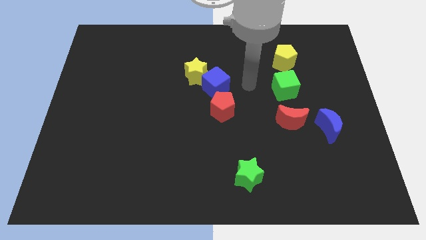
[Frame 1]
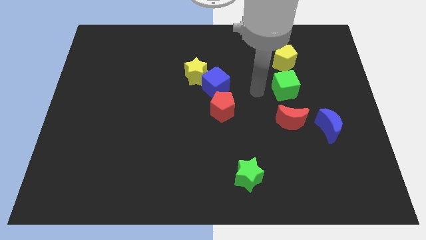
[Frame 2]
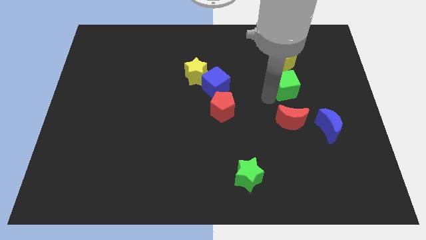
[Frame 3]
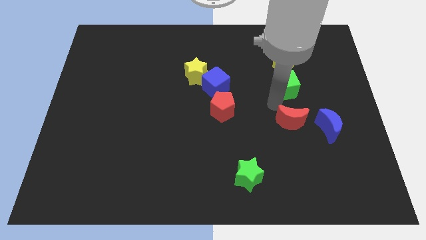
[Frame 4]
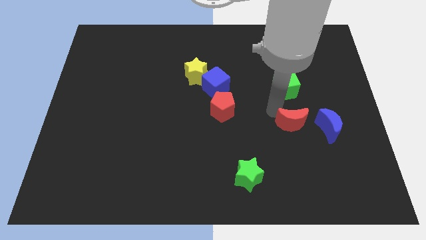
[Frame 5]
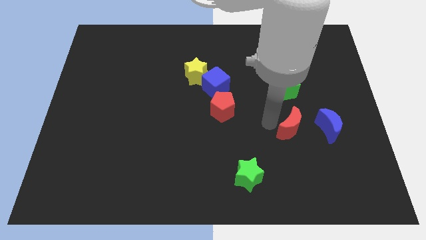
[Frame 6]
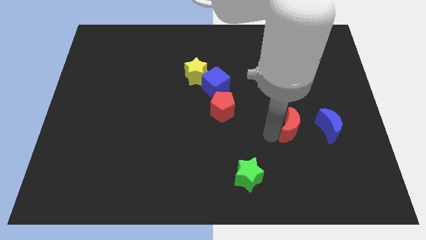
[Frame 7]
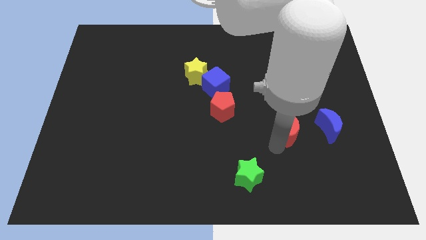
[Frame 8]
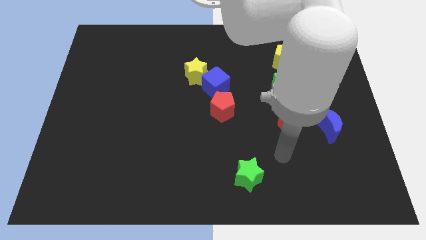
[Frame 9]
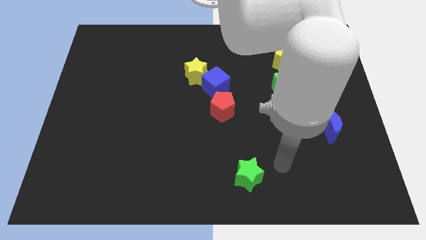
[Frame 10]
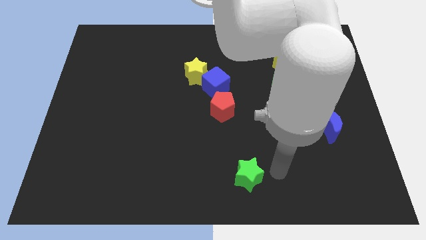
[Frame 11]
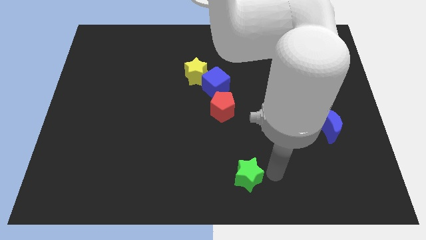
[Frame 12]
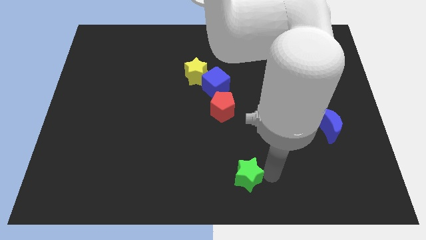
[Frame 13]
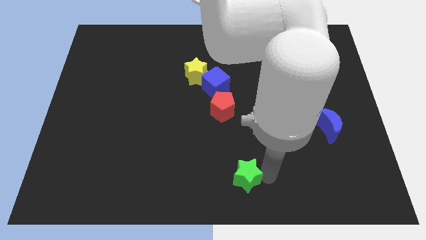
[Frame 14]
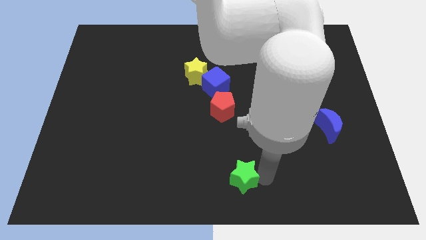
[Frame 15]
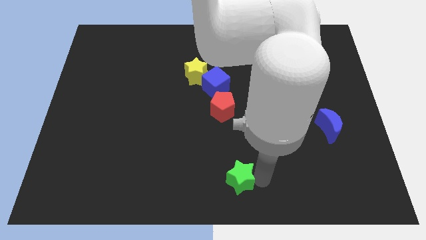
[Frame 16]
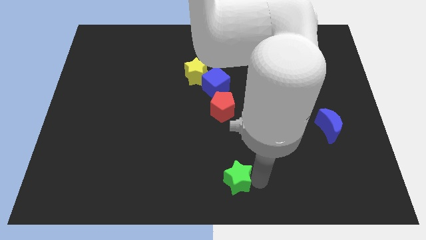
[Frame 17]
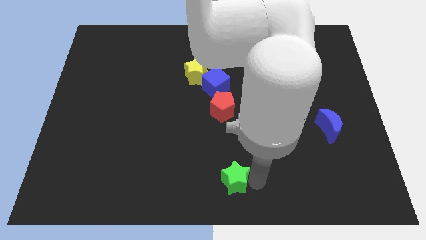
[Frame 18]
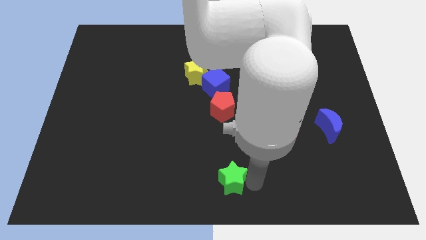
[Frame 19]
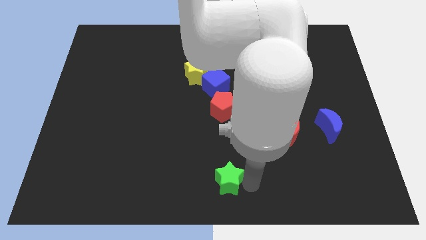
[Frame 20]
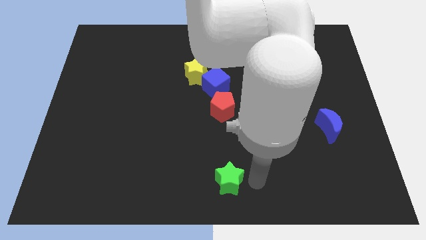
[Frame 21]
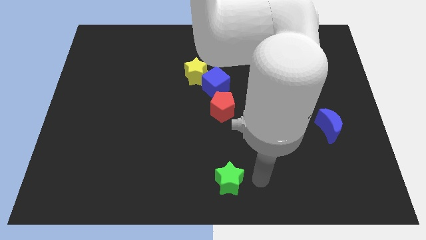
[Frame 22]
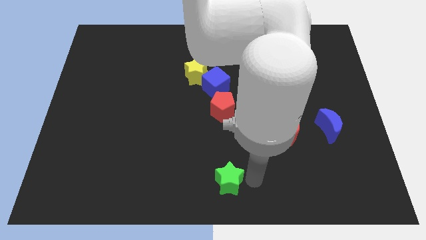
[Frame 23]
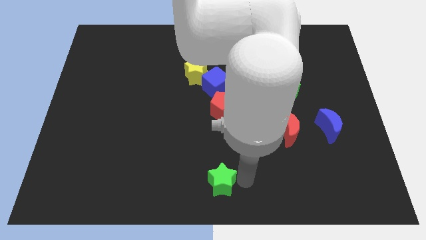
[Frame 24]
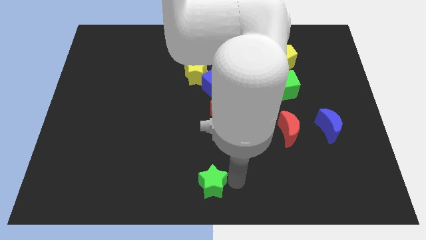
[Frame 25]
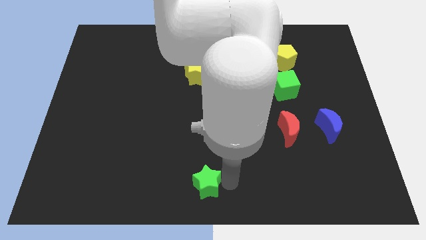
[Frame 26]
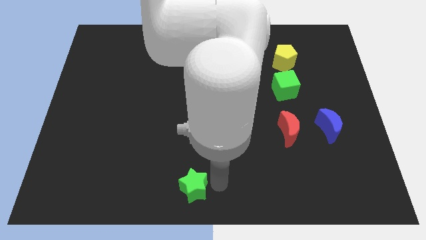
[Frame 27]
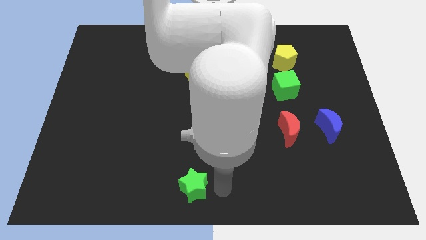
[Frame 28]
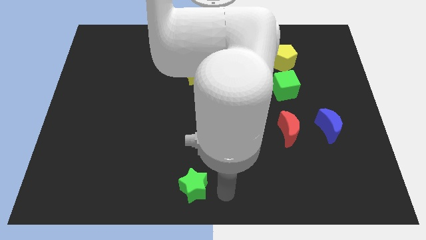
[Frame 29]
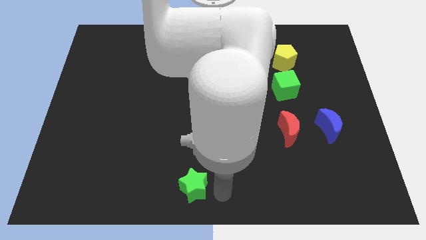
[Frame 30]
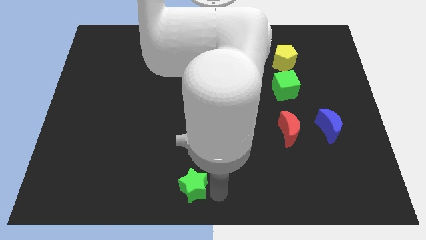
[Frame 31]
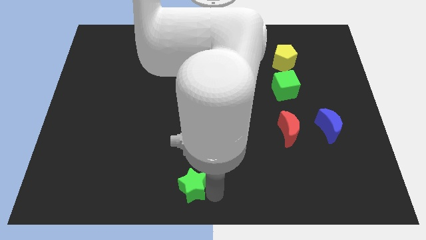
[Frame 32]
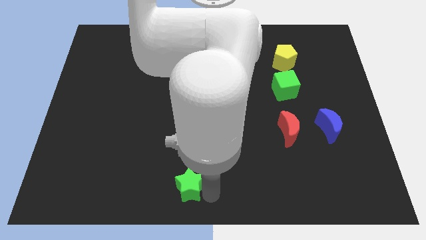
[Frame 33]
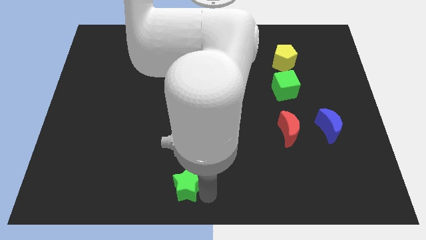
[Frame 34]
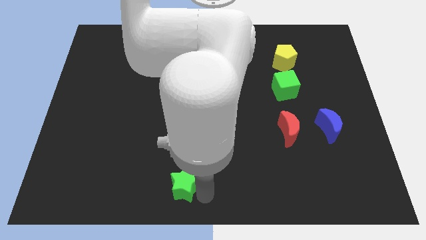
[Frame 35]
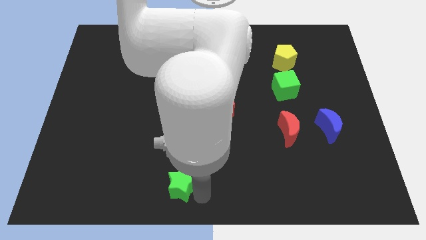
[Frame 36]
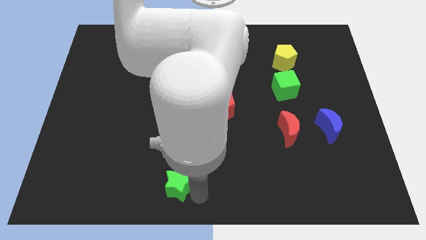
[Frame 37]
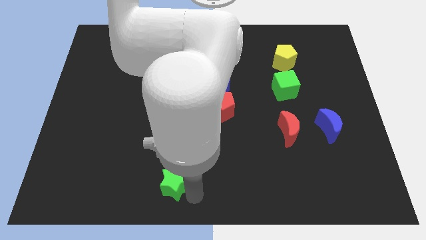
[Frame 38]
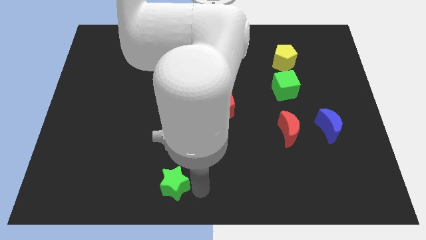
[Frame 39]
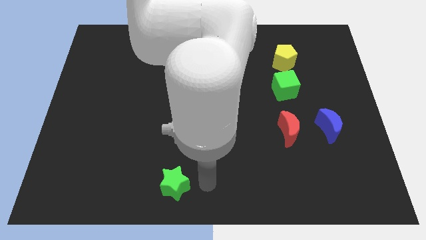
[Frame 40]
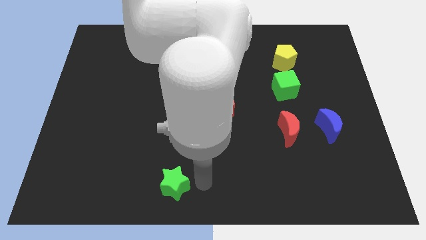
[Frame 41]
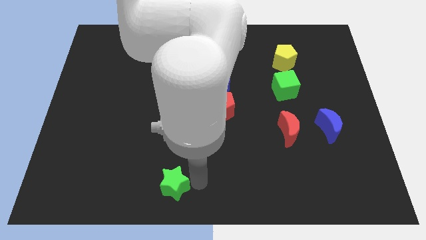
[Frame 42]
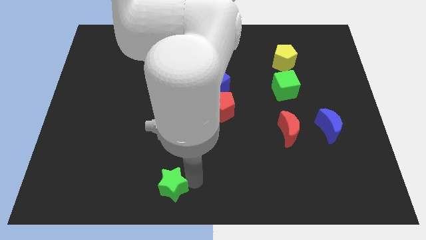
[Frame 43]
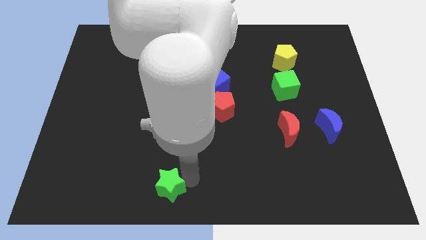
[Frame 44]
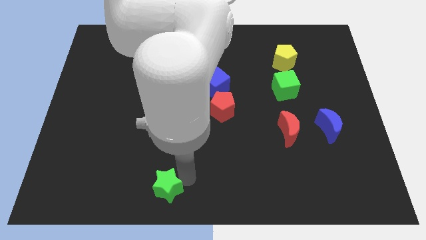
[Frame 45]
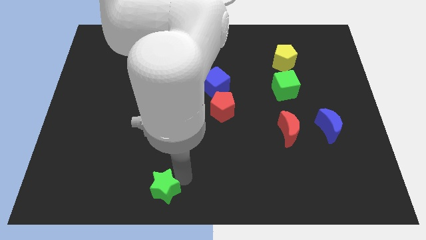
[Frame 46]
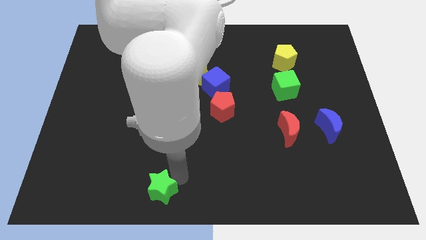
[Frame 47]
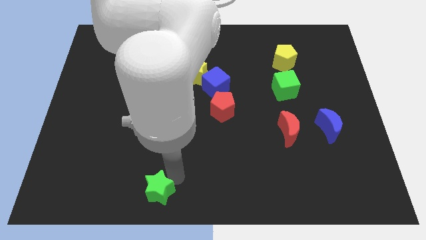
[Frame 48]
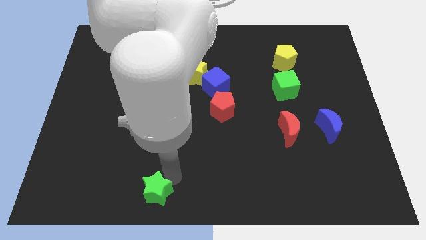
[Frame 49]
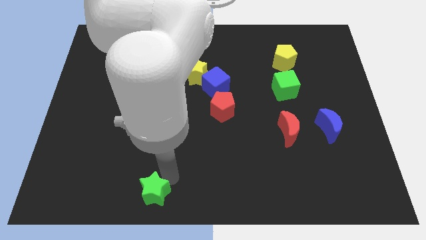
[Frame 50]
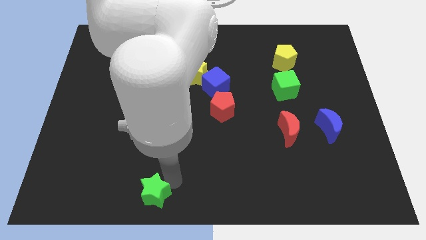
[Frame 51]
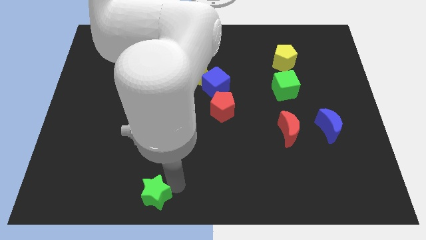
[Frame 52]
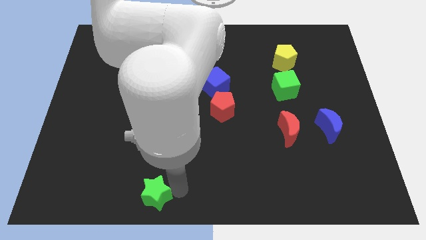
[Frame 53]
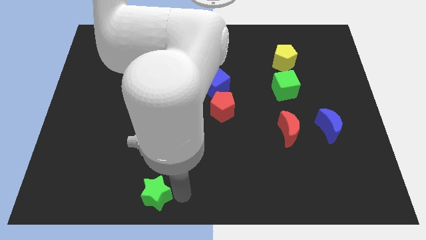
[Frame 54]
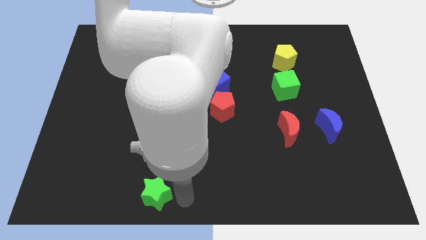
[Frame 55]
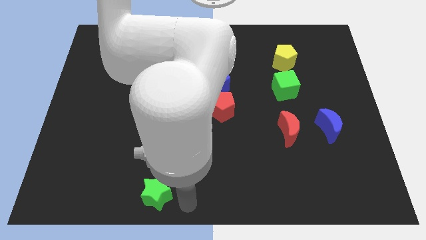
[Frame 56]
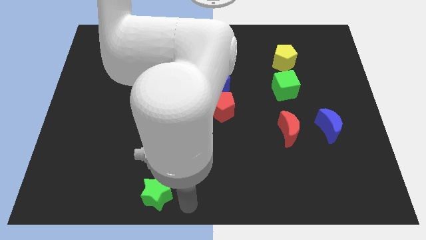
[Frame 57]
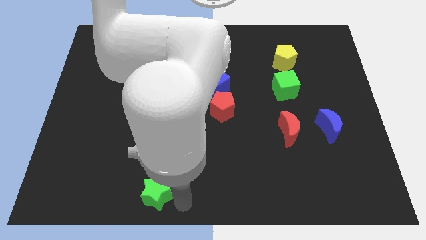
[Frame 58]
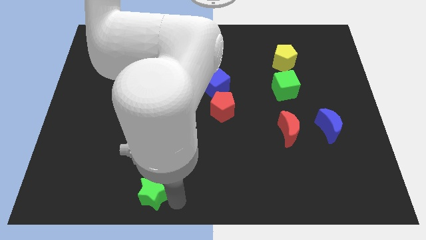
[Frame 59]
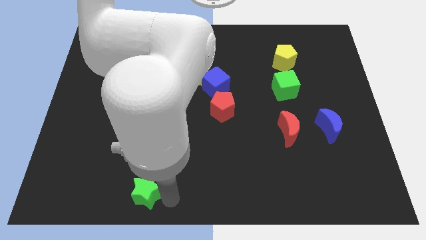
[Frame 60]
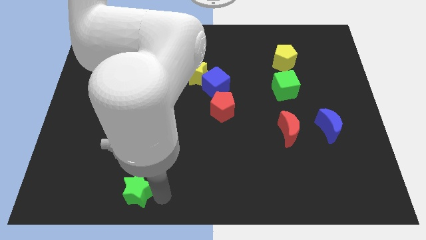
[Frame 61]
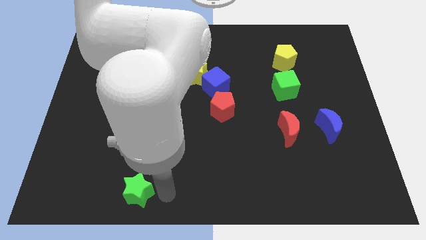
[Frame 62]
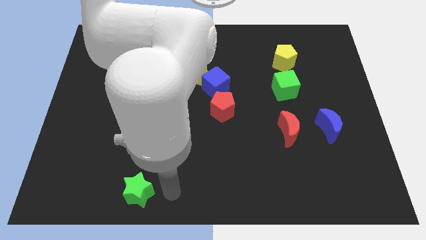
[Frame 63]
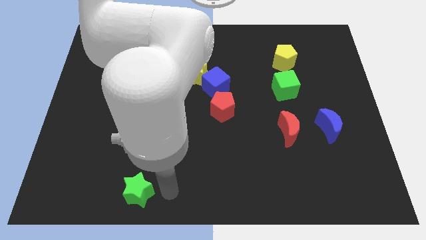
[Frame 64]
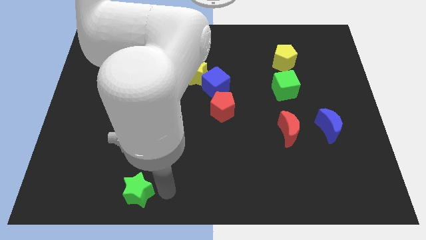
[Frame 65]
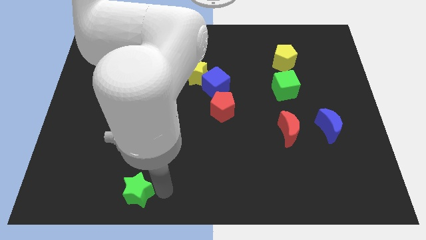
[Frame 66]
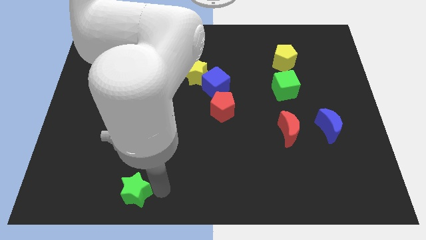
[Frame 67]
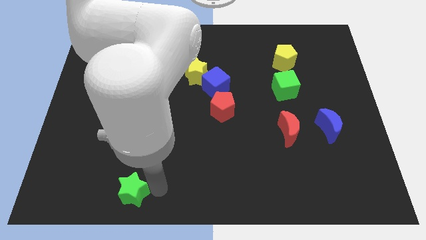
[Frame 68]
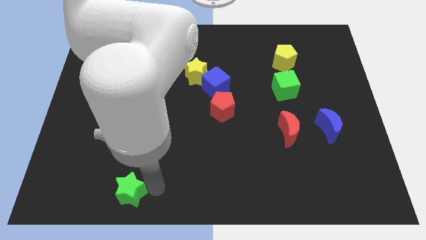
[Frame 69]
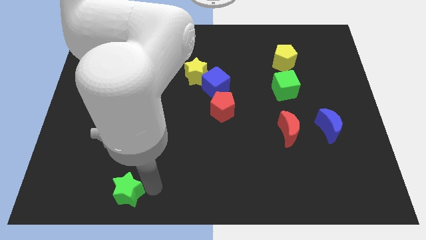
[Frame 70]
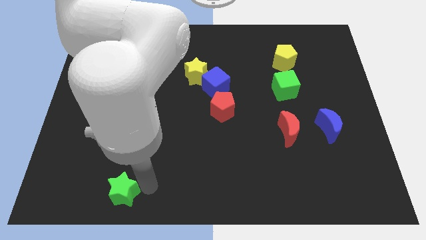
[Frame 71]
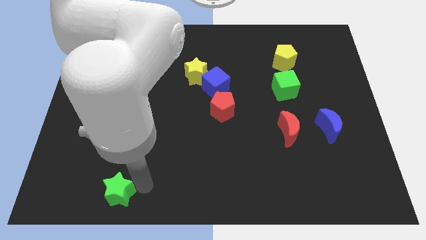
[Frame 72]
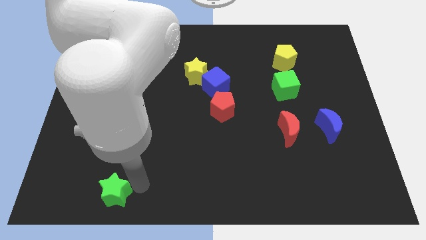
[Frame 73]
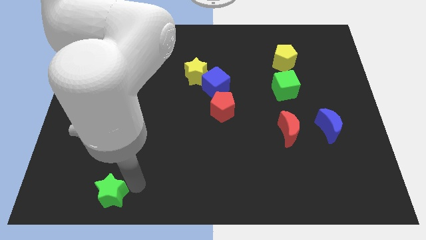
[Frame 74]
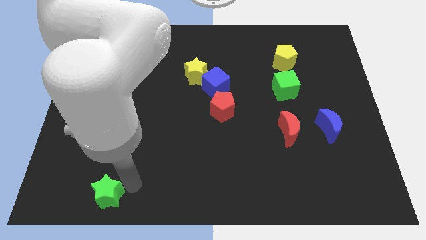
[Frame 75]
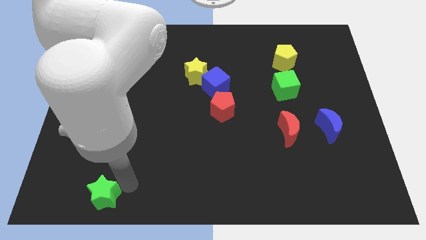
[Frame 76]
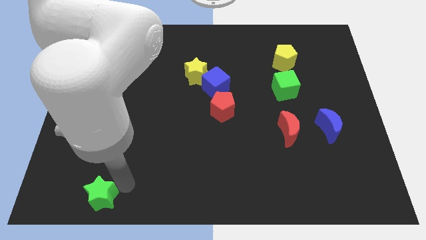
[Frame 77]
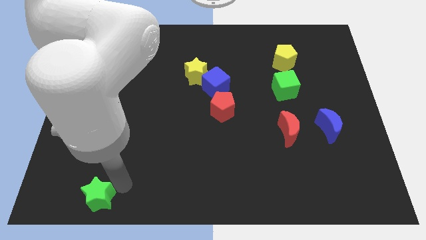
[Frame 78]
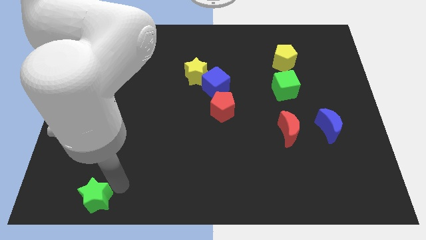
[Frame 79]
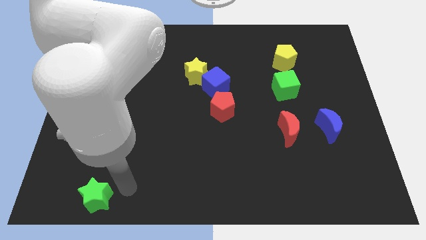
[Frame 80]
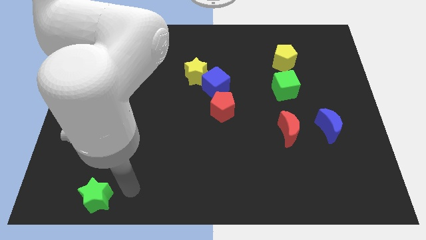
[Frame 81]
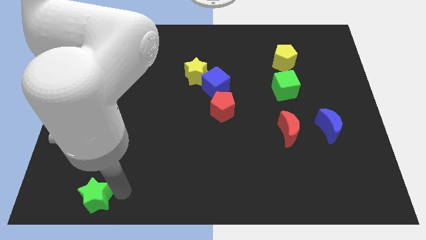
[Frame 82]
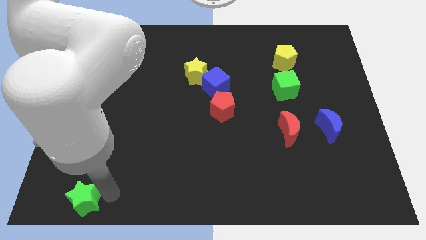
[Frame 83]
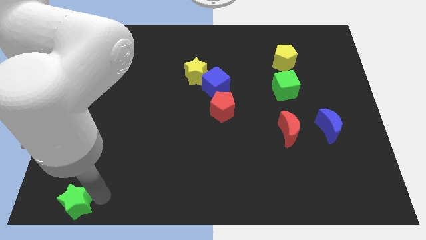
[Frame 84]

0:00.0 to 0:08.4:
slide the green star to the lower left corner
